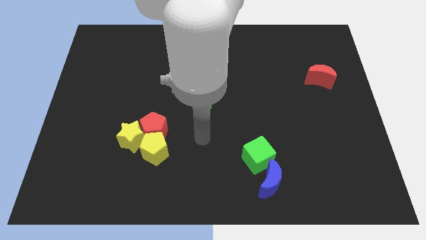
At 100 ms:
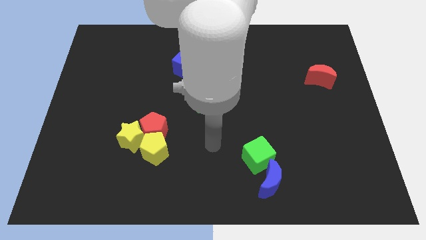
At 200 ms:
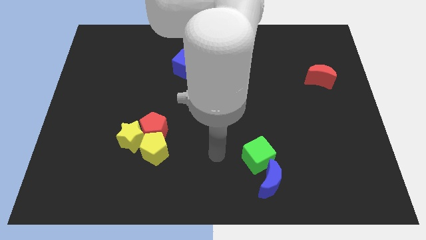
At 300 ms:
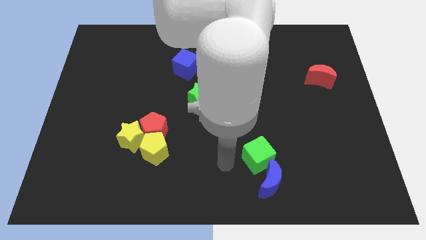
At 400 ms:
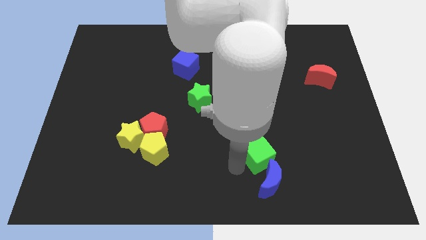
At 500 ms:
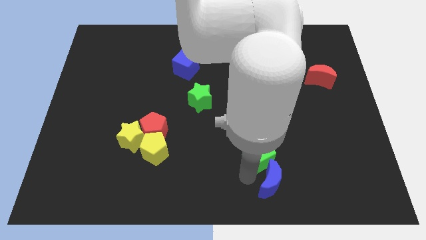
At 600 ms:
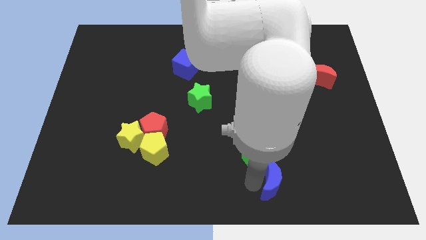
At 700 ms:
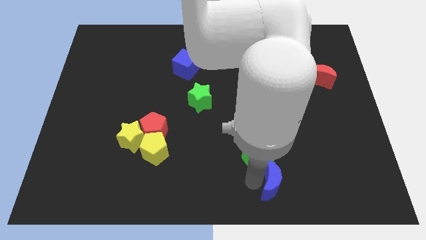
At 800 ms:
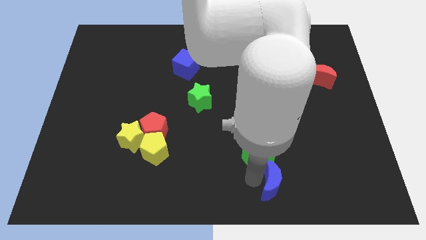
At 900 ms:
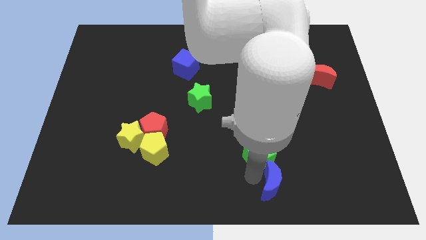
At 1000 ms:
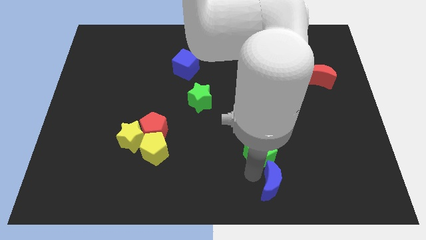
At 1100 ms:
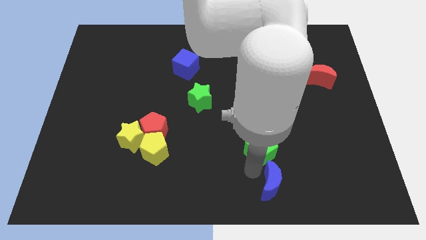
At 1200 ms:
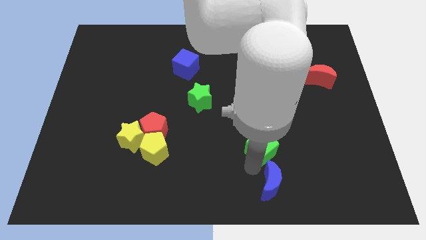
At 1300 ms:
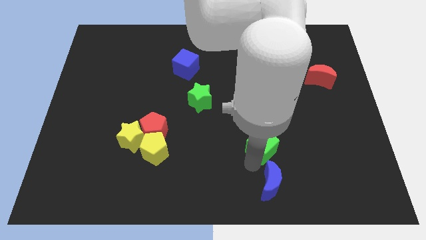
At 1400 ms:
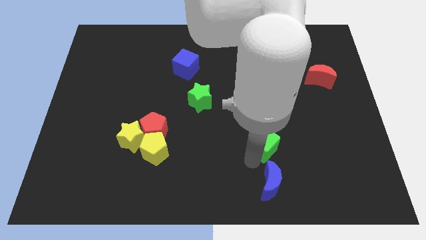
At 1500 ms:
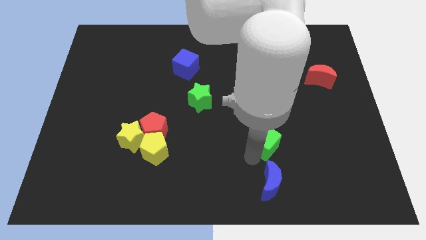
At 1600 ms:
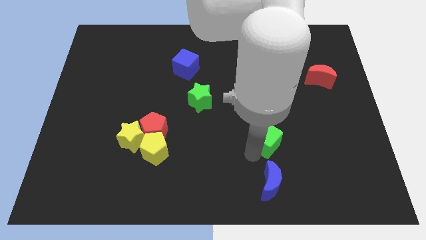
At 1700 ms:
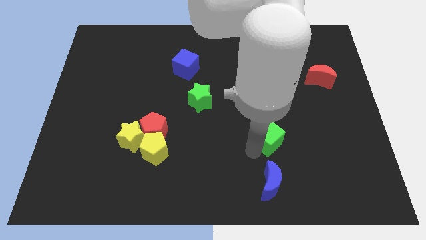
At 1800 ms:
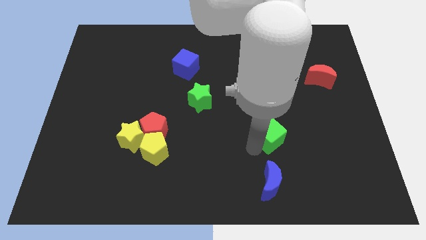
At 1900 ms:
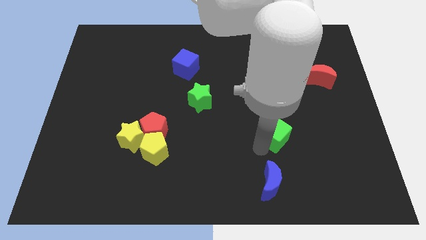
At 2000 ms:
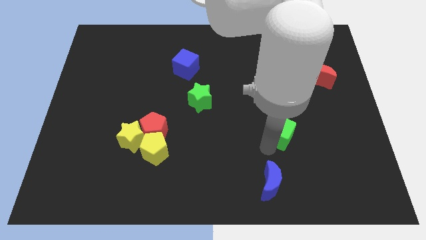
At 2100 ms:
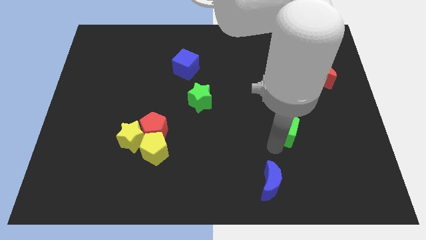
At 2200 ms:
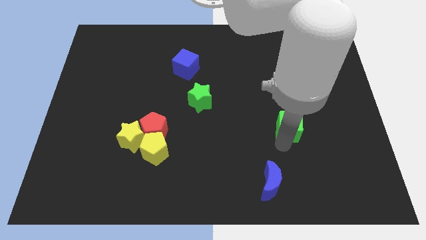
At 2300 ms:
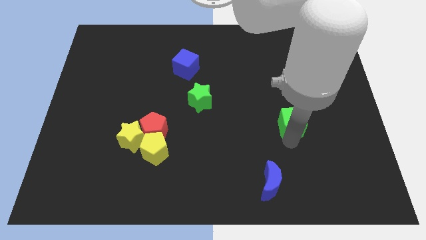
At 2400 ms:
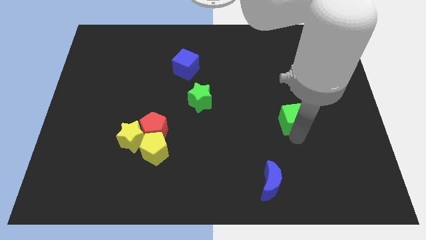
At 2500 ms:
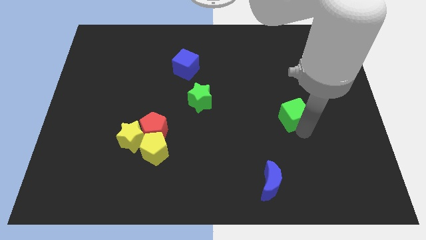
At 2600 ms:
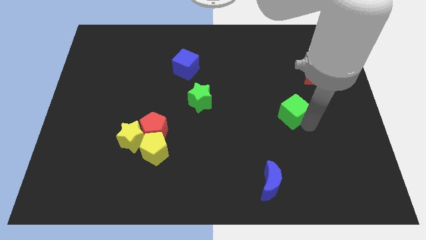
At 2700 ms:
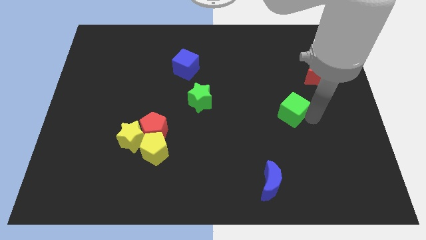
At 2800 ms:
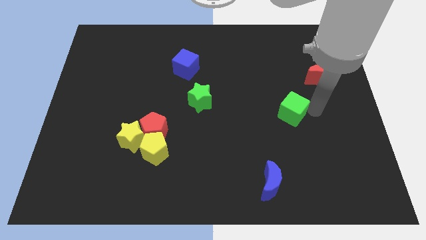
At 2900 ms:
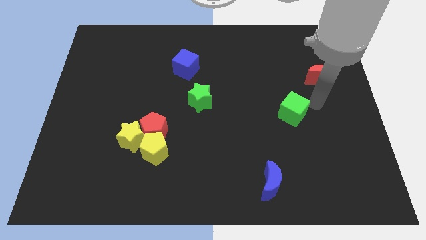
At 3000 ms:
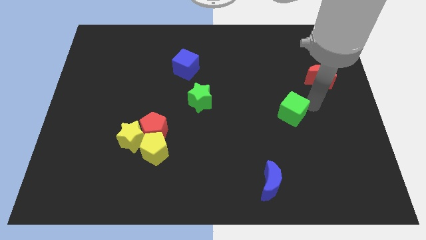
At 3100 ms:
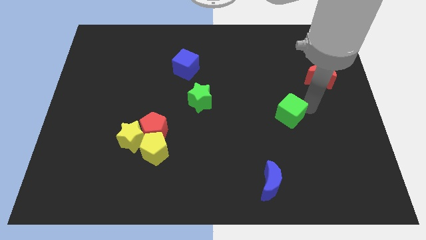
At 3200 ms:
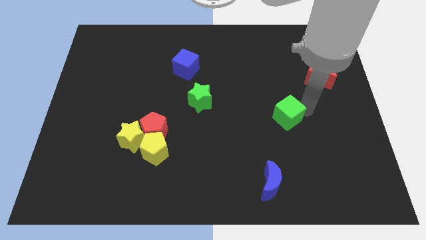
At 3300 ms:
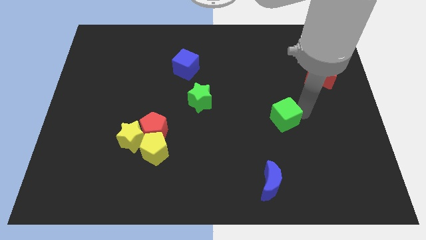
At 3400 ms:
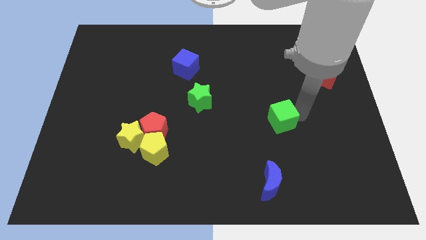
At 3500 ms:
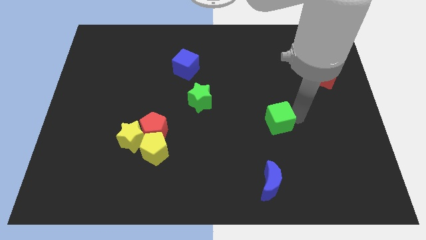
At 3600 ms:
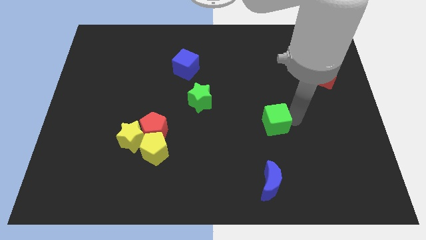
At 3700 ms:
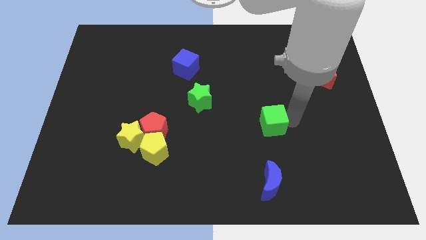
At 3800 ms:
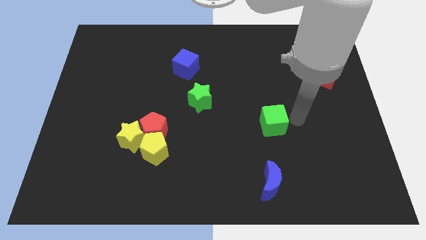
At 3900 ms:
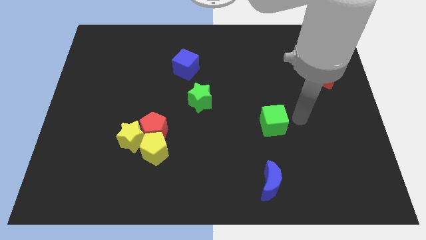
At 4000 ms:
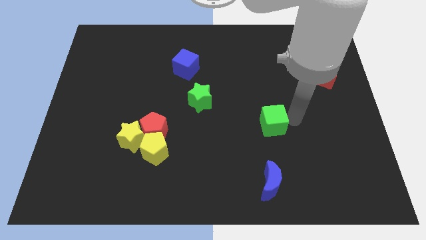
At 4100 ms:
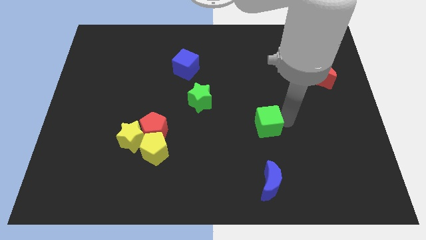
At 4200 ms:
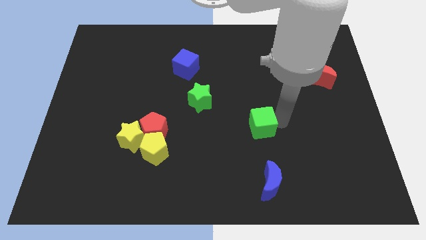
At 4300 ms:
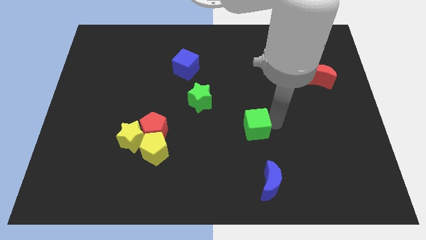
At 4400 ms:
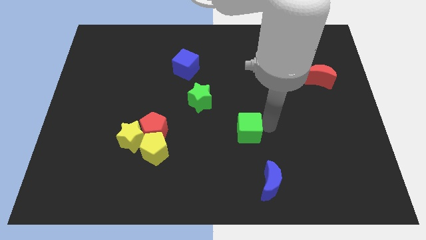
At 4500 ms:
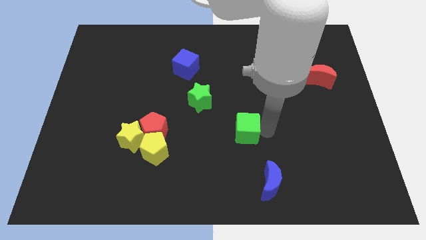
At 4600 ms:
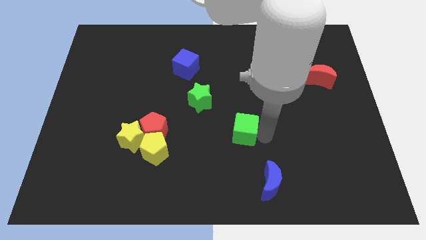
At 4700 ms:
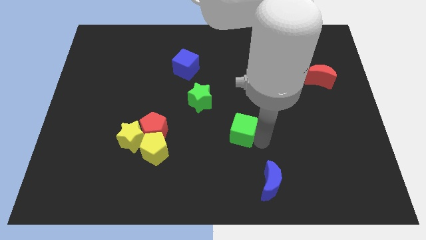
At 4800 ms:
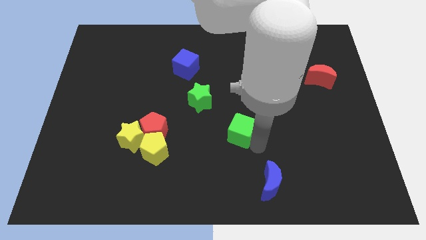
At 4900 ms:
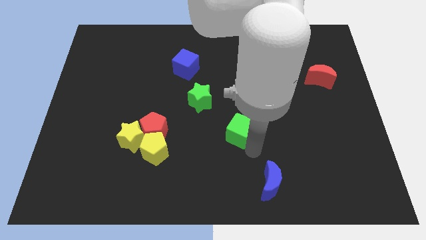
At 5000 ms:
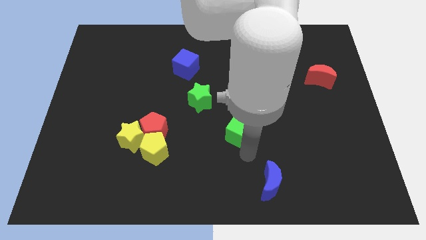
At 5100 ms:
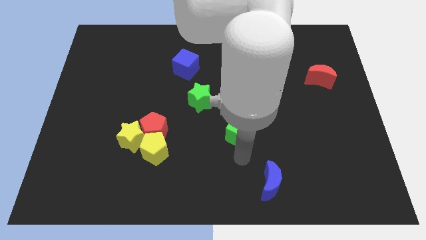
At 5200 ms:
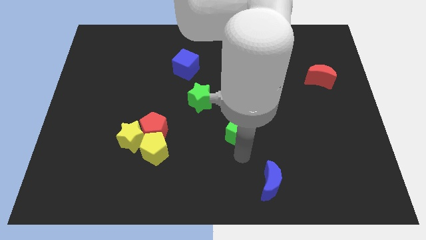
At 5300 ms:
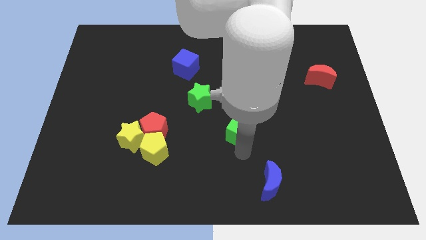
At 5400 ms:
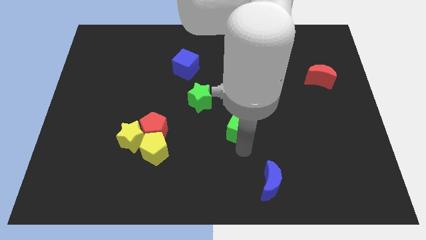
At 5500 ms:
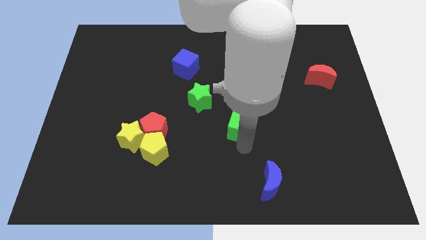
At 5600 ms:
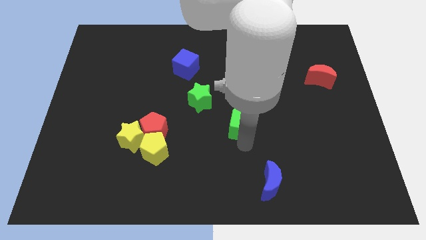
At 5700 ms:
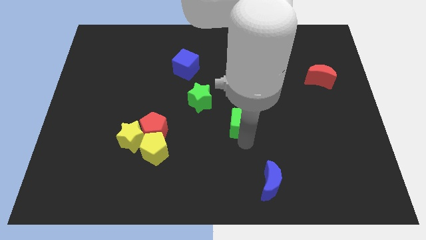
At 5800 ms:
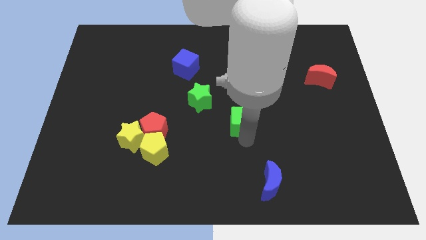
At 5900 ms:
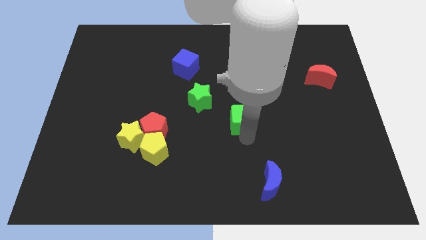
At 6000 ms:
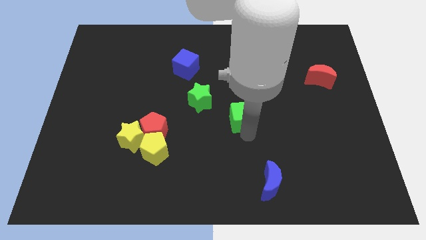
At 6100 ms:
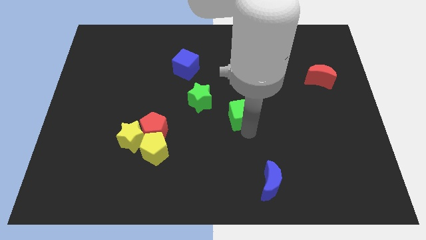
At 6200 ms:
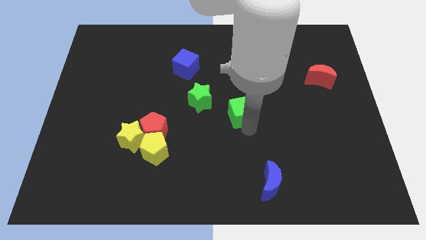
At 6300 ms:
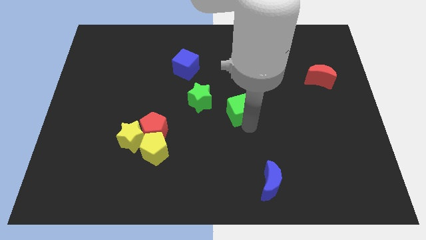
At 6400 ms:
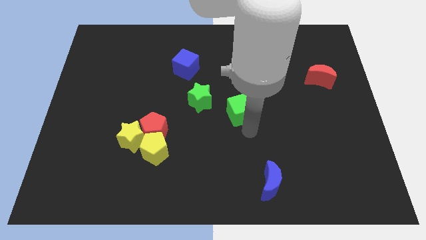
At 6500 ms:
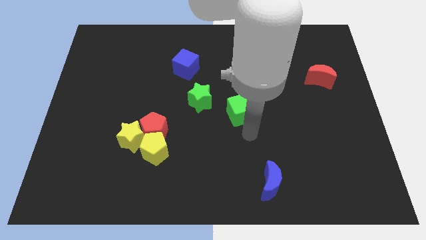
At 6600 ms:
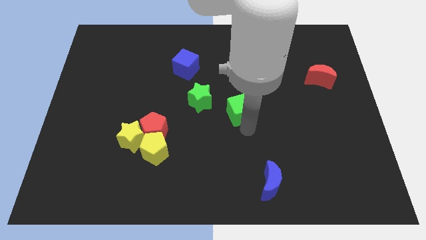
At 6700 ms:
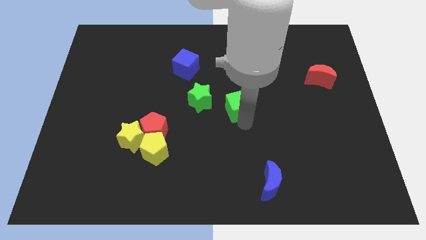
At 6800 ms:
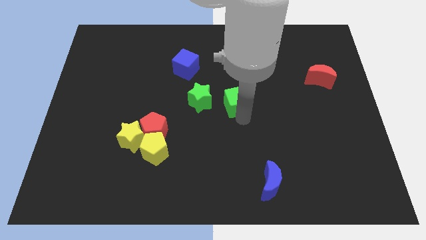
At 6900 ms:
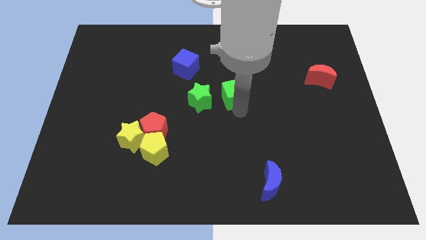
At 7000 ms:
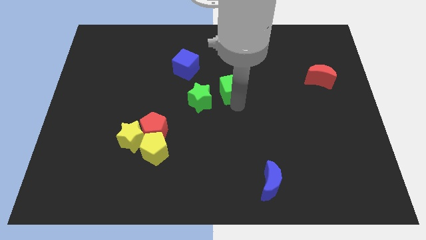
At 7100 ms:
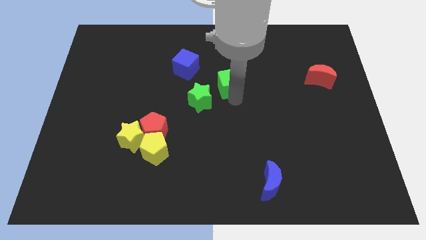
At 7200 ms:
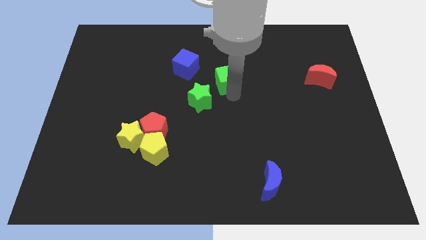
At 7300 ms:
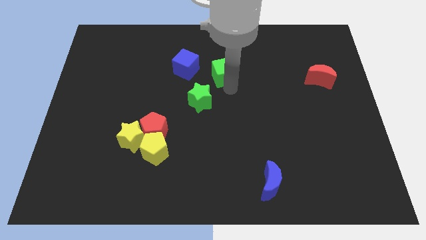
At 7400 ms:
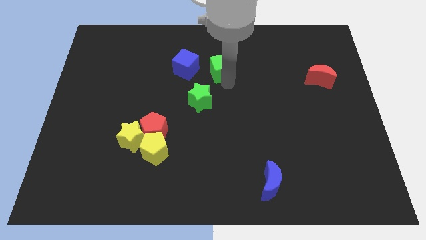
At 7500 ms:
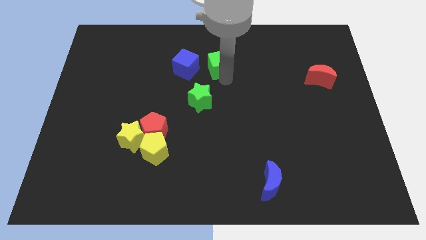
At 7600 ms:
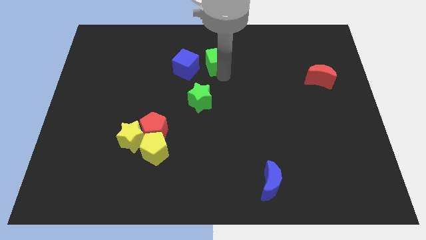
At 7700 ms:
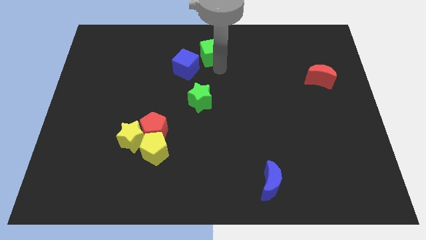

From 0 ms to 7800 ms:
put the green cube to the top
